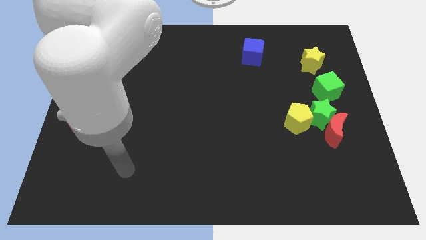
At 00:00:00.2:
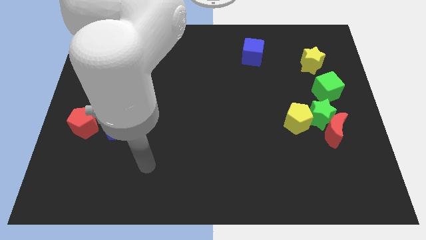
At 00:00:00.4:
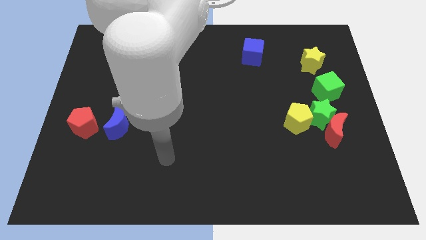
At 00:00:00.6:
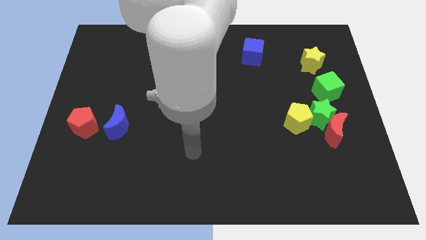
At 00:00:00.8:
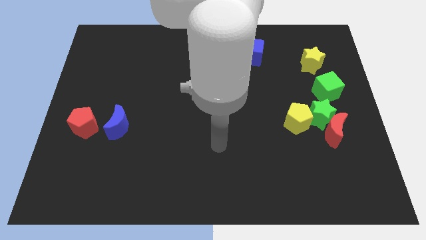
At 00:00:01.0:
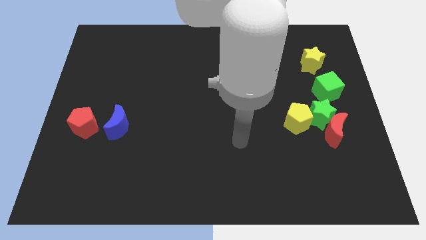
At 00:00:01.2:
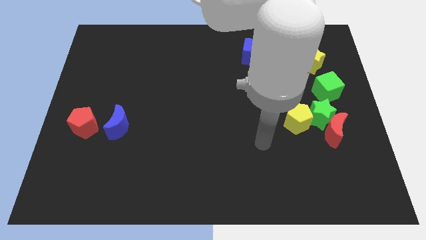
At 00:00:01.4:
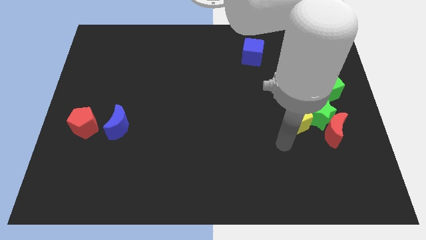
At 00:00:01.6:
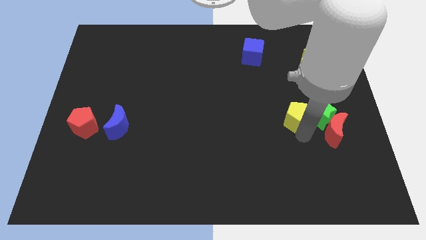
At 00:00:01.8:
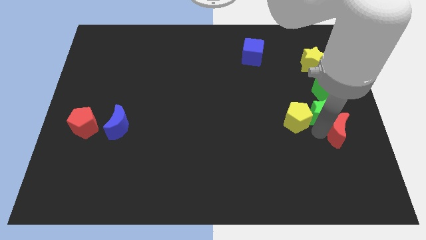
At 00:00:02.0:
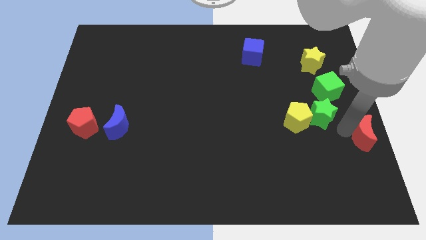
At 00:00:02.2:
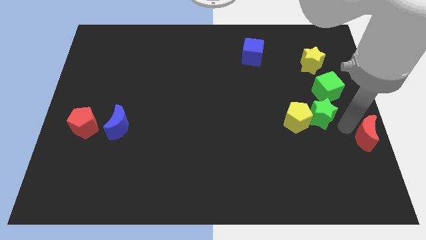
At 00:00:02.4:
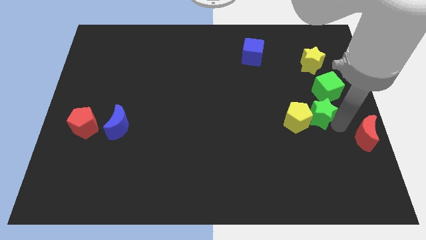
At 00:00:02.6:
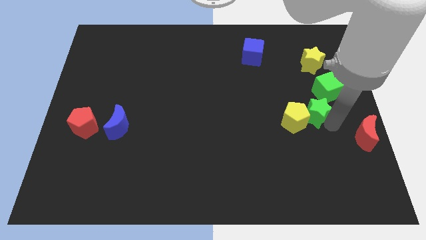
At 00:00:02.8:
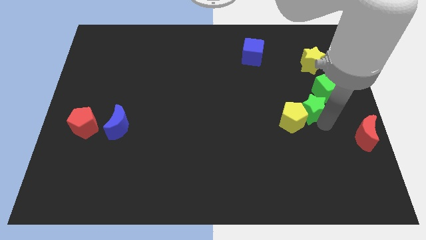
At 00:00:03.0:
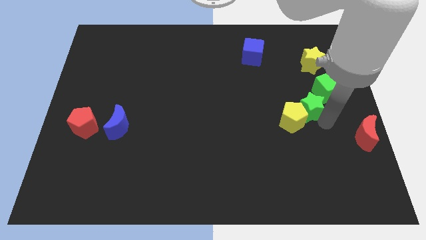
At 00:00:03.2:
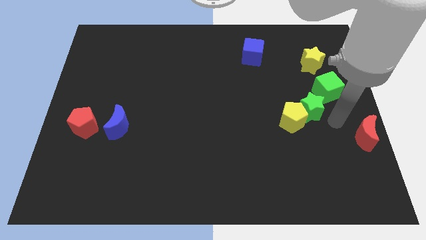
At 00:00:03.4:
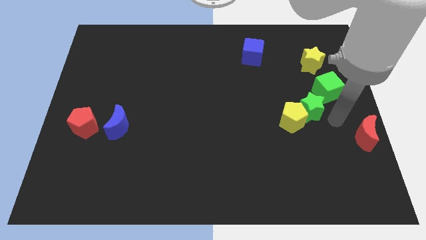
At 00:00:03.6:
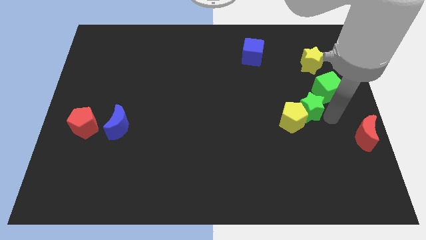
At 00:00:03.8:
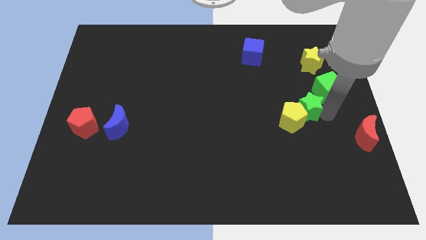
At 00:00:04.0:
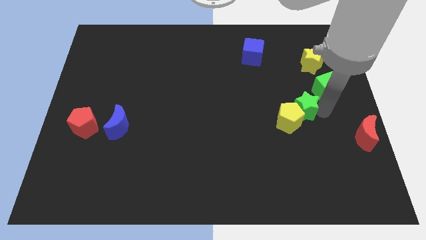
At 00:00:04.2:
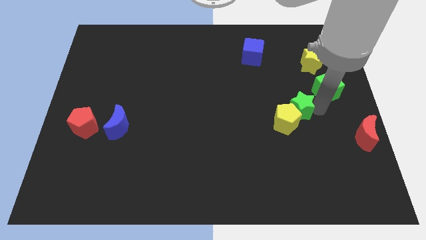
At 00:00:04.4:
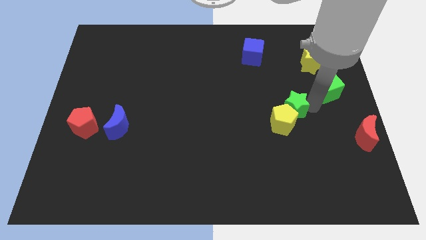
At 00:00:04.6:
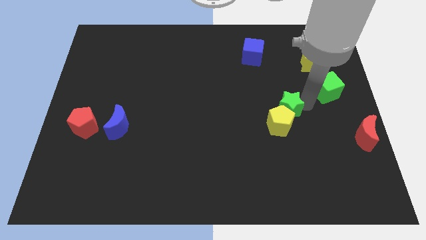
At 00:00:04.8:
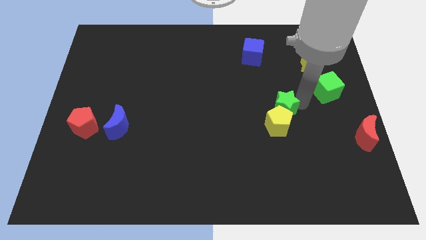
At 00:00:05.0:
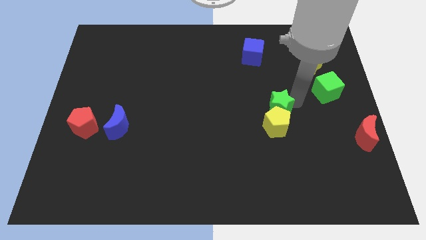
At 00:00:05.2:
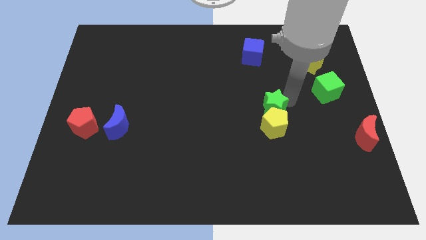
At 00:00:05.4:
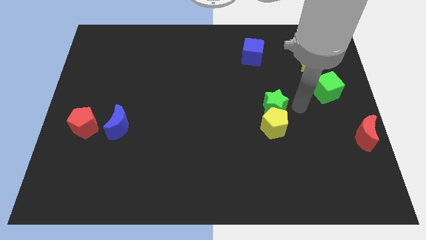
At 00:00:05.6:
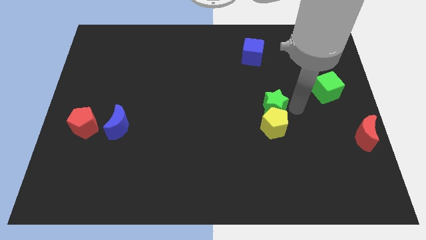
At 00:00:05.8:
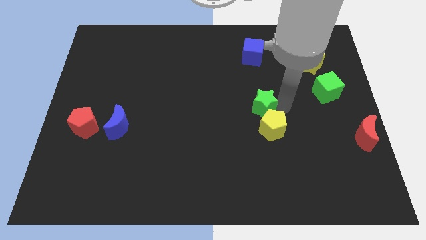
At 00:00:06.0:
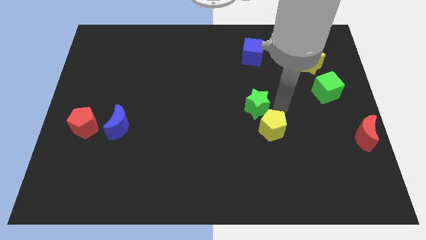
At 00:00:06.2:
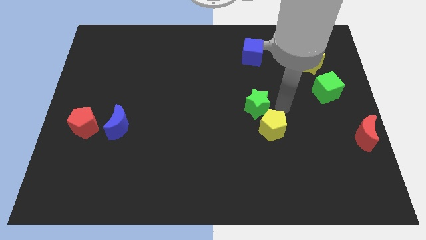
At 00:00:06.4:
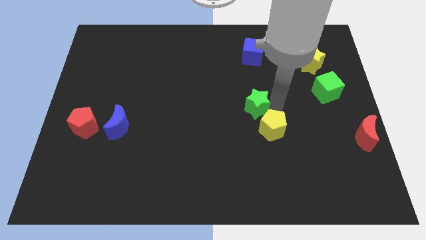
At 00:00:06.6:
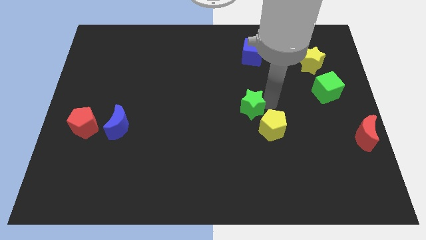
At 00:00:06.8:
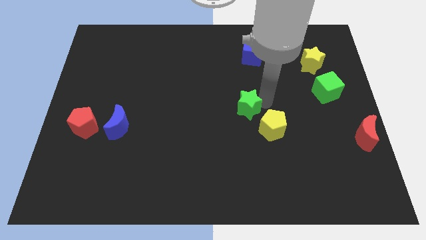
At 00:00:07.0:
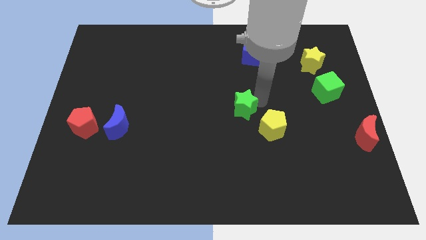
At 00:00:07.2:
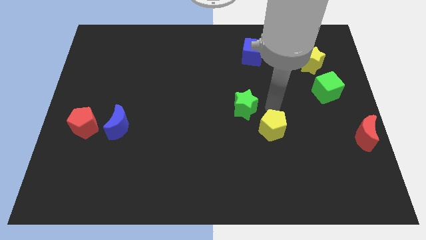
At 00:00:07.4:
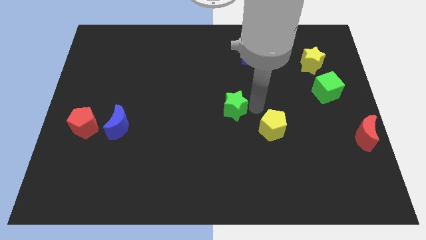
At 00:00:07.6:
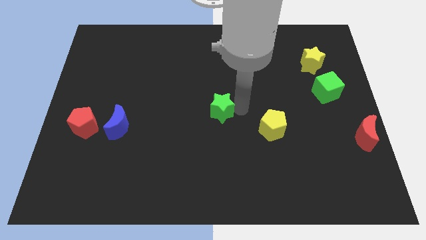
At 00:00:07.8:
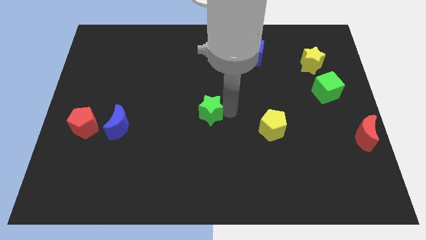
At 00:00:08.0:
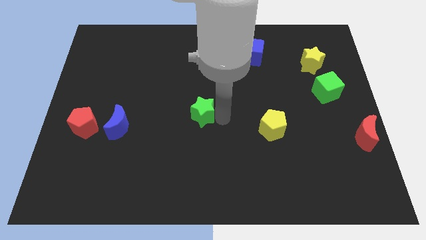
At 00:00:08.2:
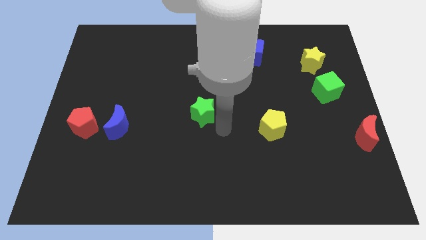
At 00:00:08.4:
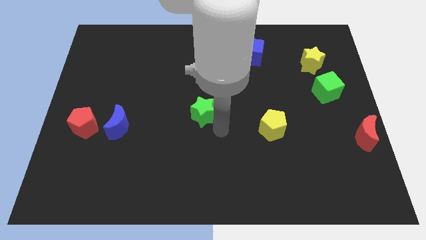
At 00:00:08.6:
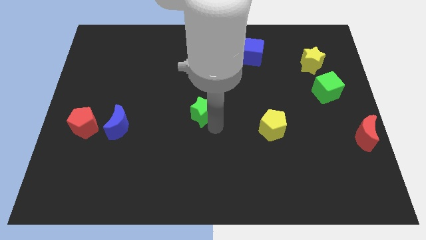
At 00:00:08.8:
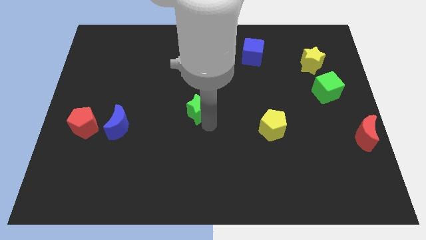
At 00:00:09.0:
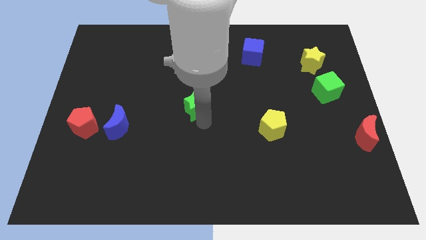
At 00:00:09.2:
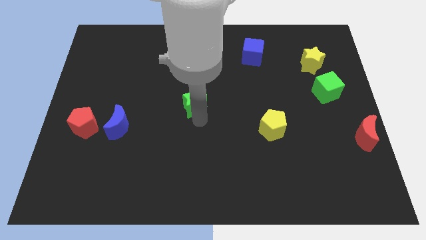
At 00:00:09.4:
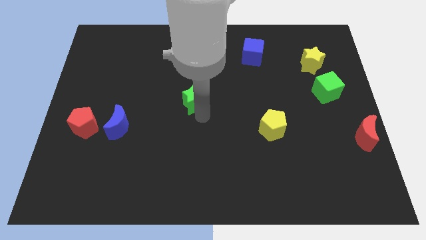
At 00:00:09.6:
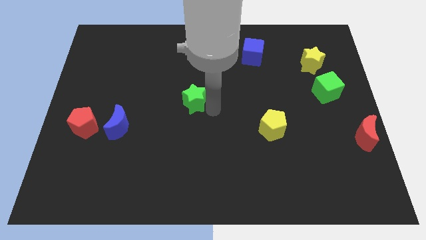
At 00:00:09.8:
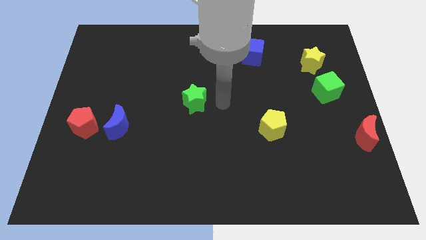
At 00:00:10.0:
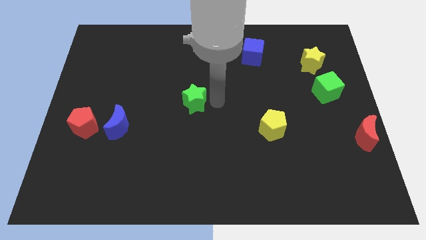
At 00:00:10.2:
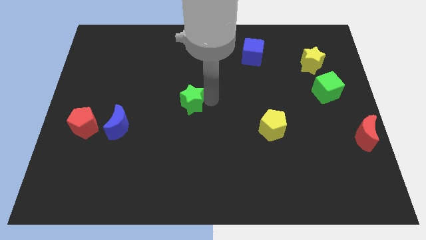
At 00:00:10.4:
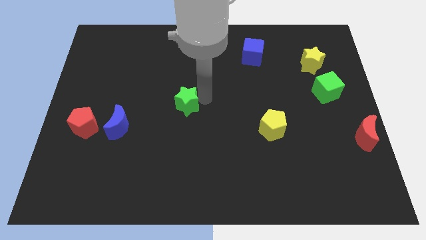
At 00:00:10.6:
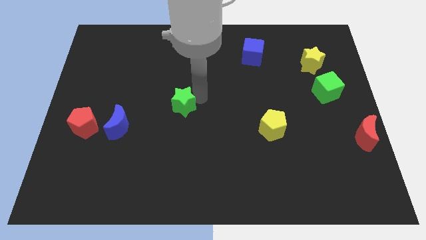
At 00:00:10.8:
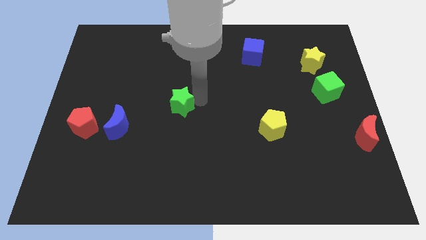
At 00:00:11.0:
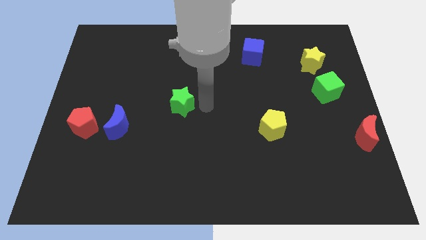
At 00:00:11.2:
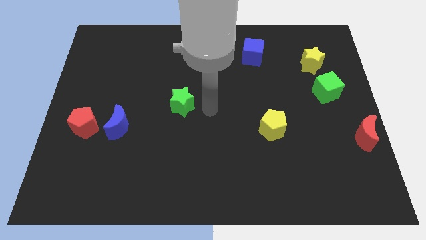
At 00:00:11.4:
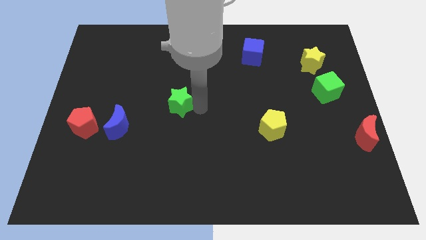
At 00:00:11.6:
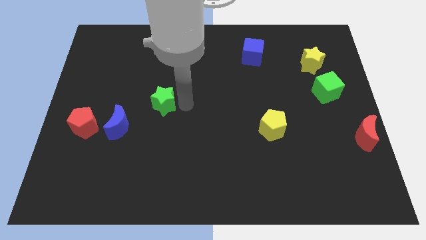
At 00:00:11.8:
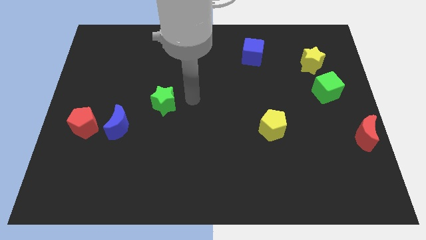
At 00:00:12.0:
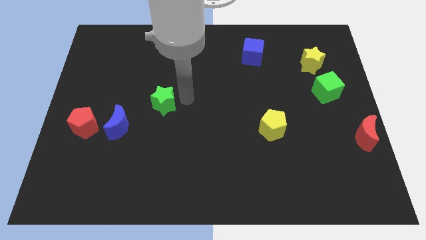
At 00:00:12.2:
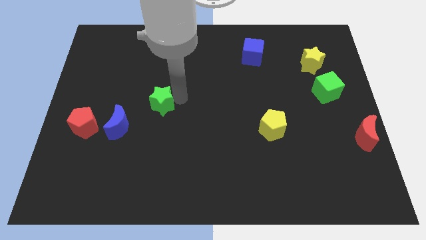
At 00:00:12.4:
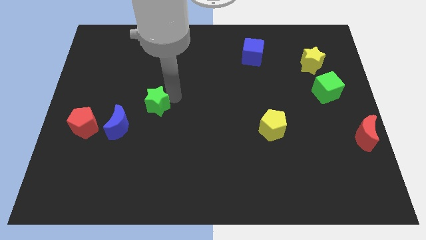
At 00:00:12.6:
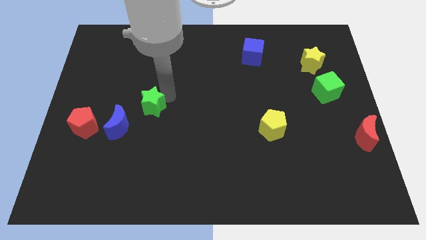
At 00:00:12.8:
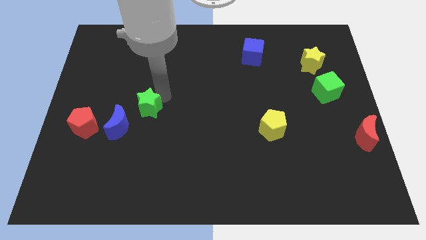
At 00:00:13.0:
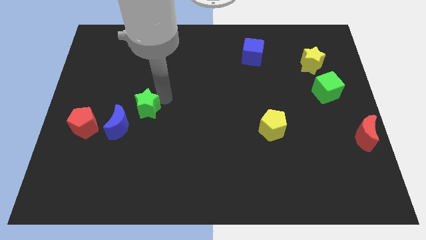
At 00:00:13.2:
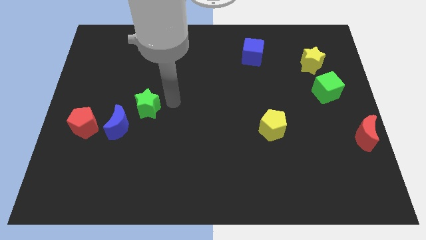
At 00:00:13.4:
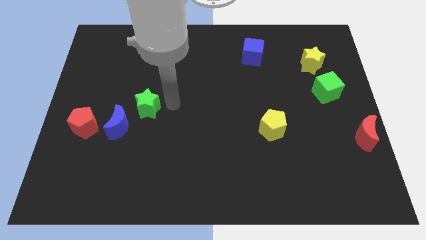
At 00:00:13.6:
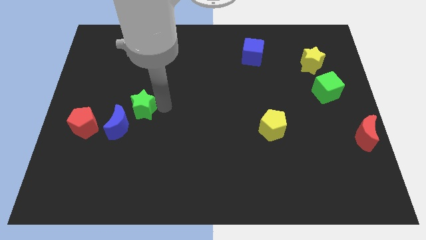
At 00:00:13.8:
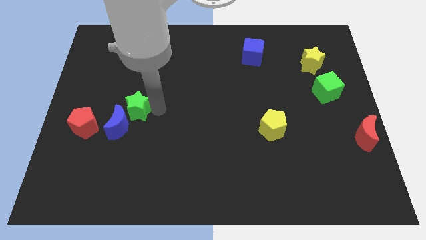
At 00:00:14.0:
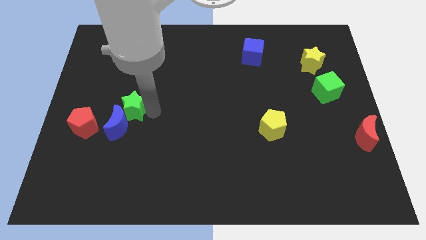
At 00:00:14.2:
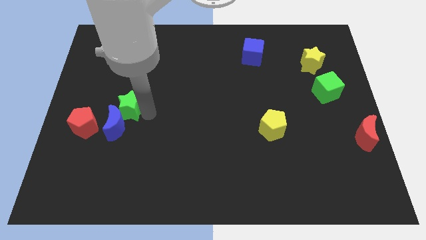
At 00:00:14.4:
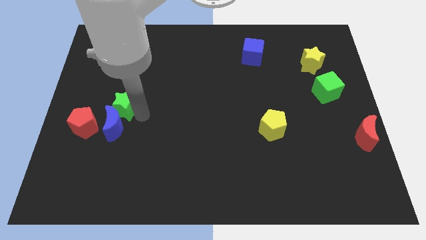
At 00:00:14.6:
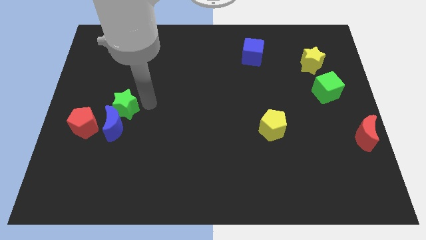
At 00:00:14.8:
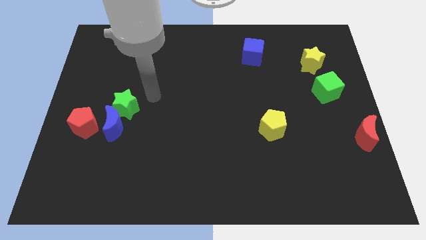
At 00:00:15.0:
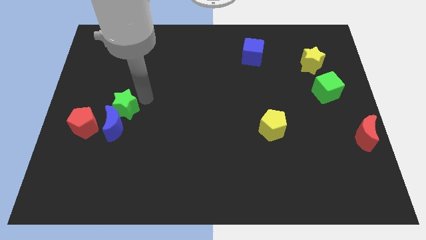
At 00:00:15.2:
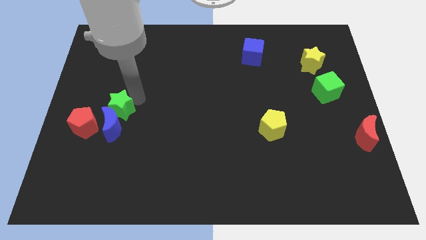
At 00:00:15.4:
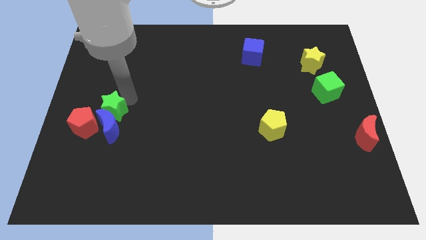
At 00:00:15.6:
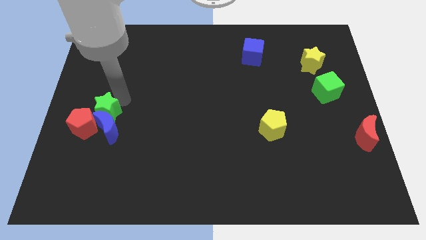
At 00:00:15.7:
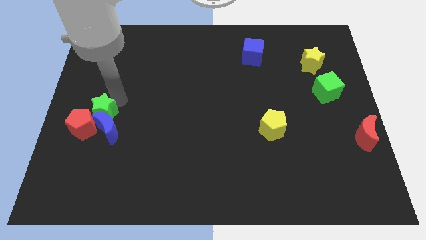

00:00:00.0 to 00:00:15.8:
push the green star towards the red pentagon
